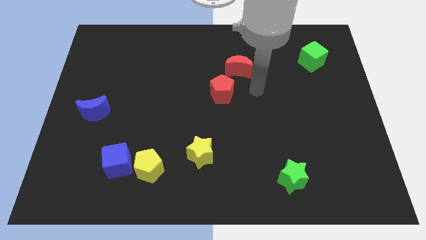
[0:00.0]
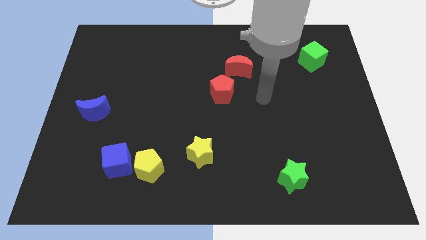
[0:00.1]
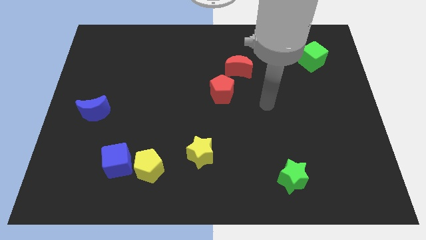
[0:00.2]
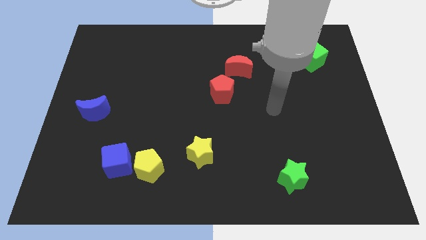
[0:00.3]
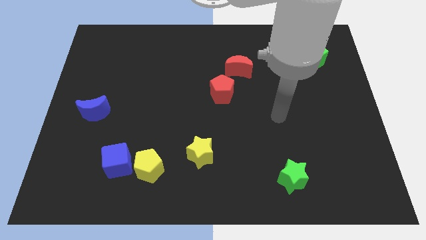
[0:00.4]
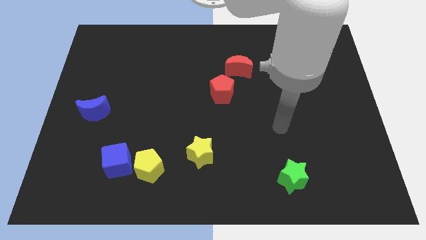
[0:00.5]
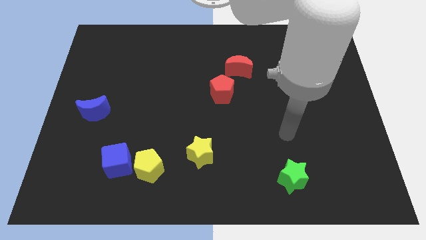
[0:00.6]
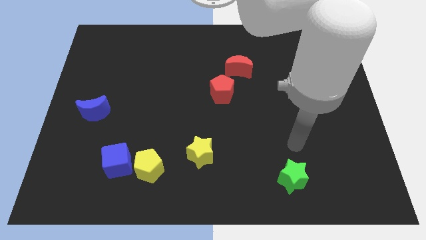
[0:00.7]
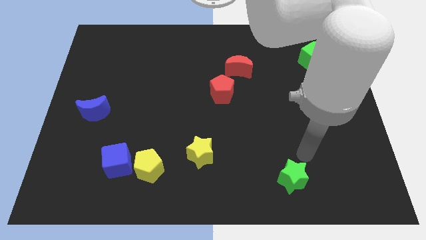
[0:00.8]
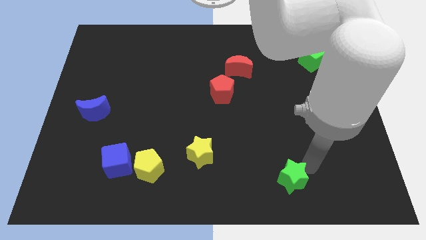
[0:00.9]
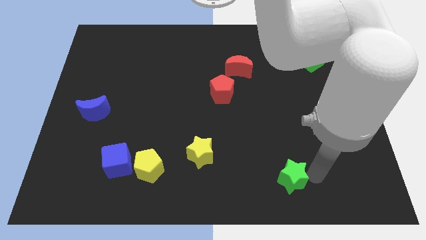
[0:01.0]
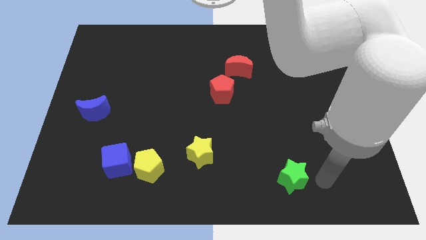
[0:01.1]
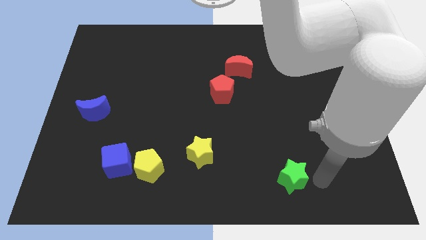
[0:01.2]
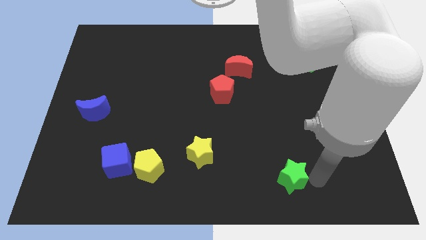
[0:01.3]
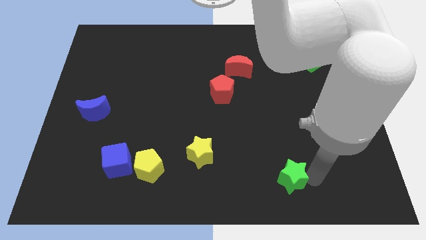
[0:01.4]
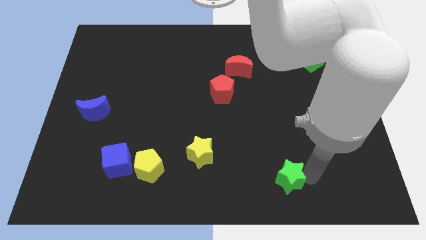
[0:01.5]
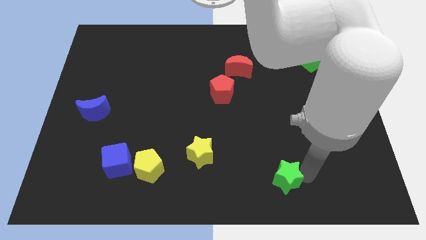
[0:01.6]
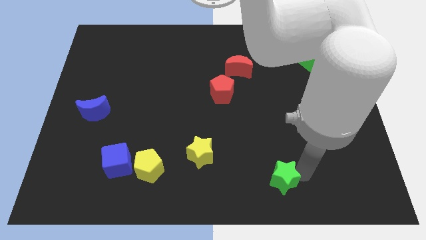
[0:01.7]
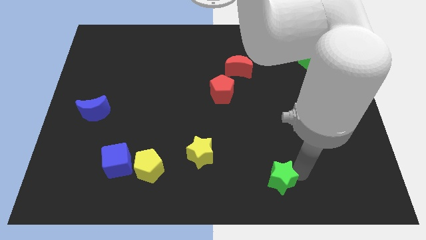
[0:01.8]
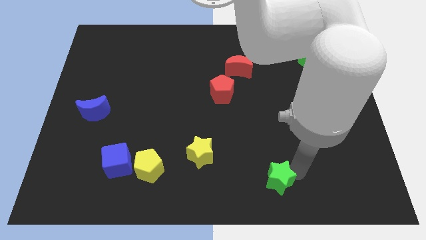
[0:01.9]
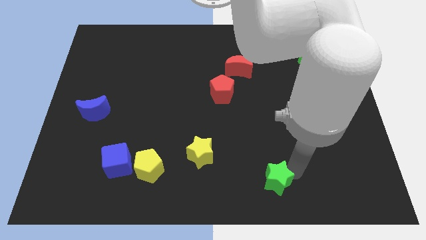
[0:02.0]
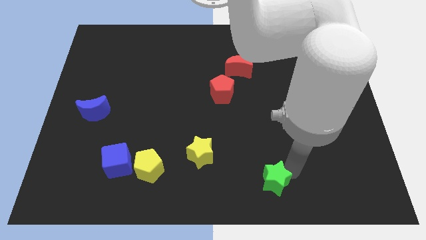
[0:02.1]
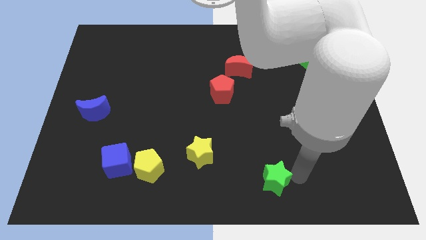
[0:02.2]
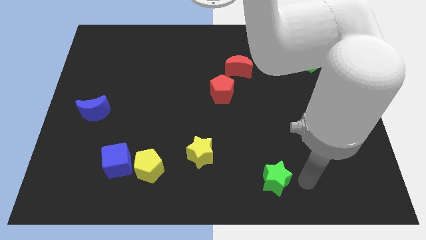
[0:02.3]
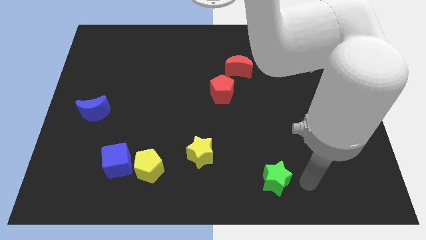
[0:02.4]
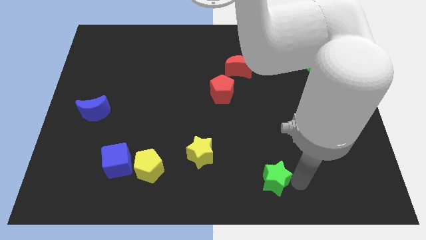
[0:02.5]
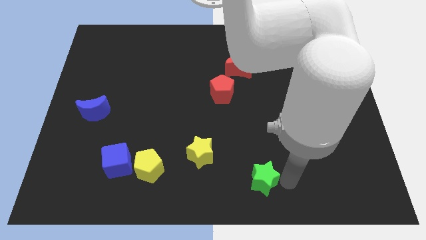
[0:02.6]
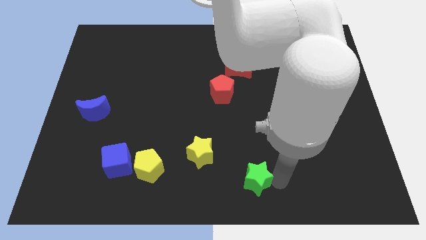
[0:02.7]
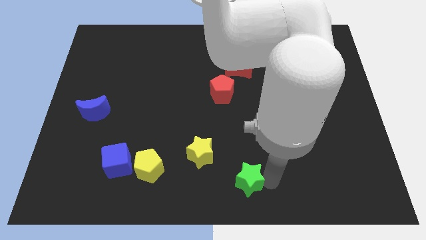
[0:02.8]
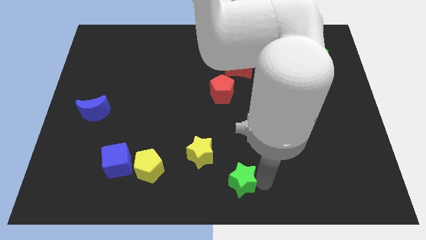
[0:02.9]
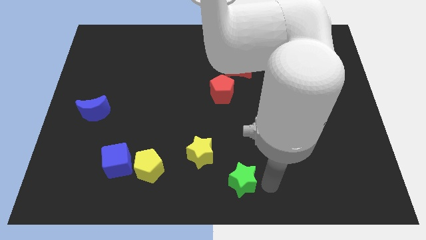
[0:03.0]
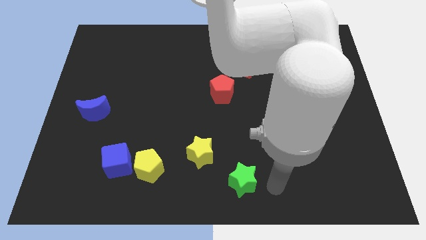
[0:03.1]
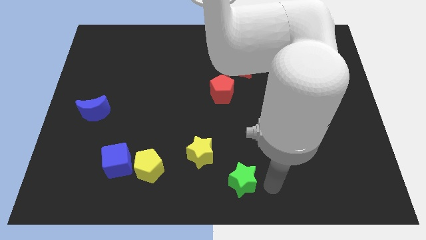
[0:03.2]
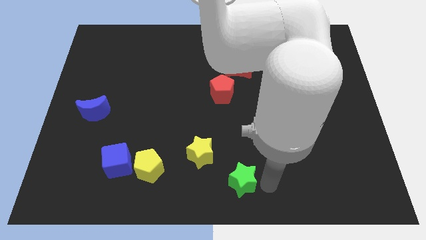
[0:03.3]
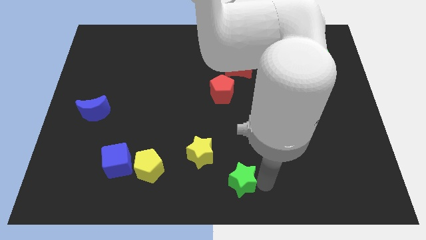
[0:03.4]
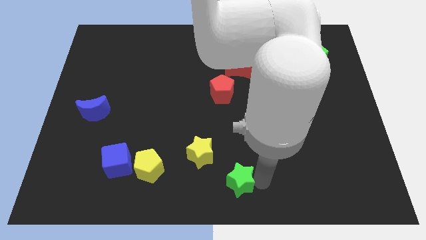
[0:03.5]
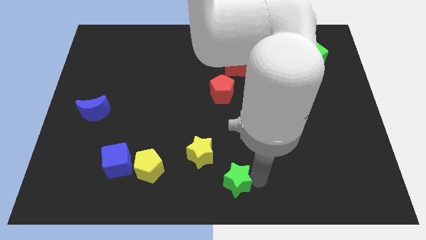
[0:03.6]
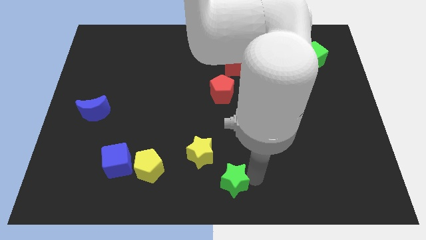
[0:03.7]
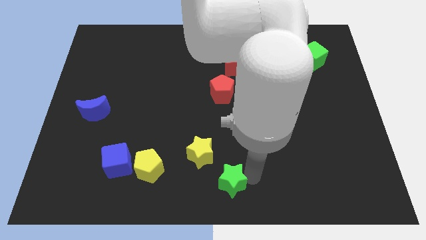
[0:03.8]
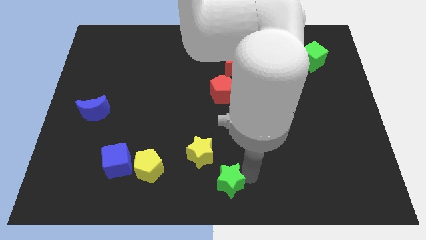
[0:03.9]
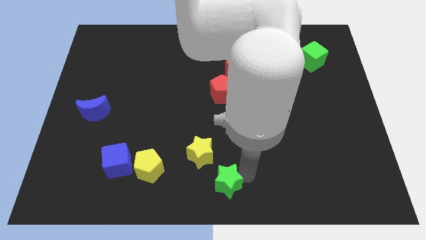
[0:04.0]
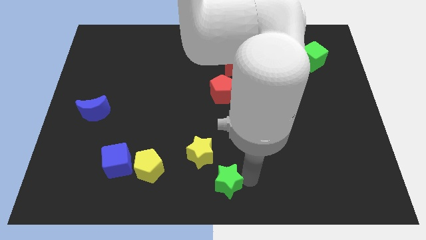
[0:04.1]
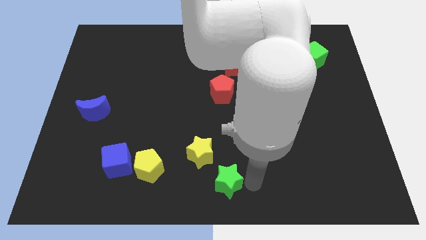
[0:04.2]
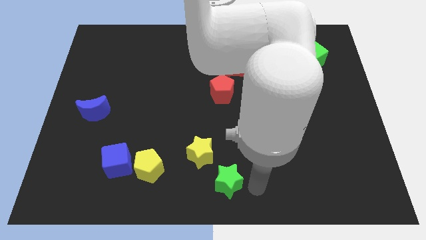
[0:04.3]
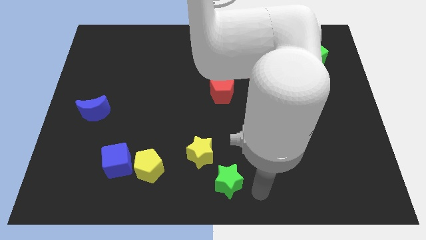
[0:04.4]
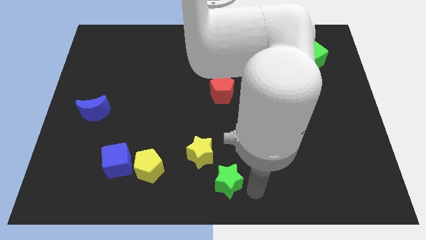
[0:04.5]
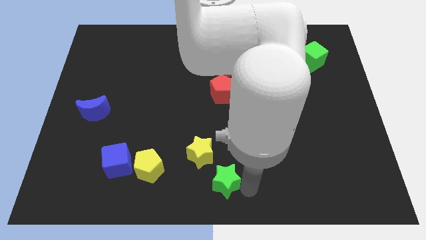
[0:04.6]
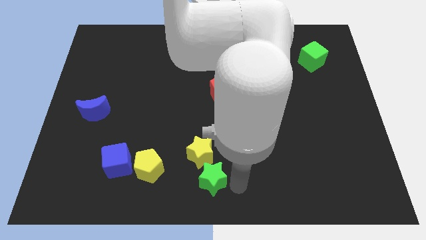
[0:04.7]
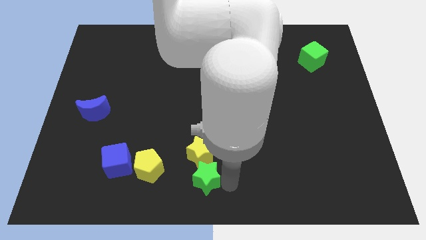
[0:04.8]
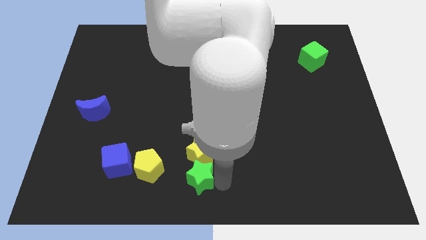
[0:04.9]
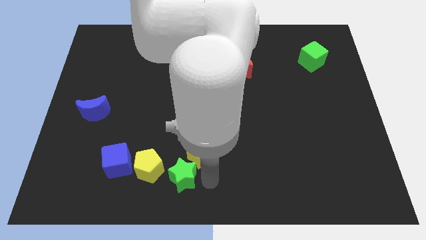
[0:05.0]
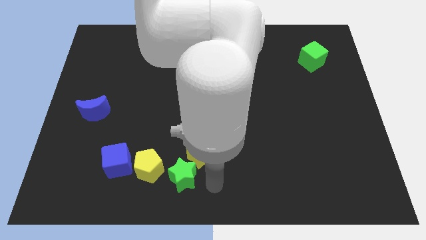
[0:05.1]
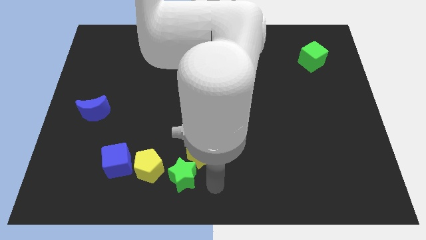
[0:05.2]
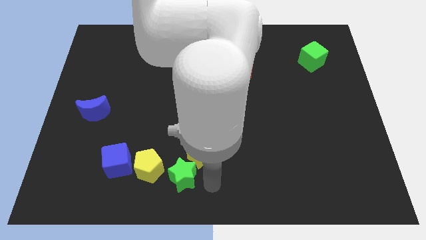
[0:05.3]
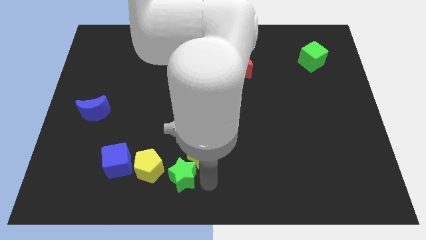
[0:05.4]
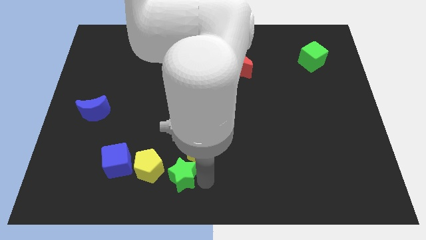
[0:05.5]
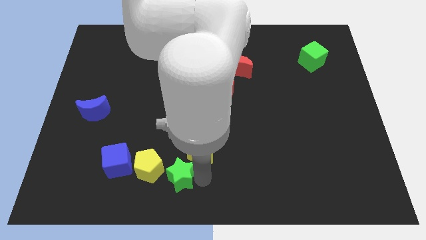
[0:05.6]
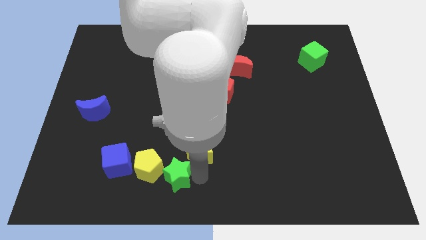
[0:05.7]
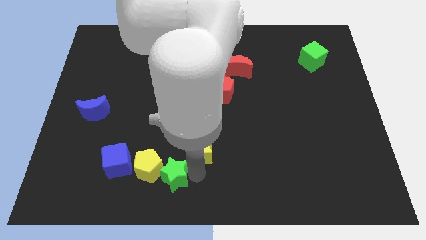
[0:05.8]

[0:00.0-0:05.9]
put the green star to the yellow pentagon

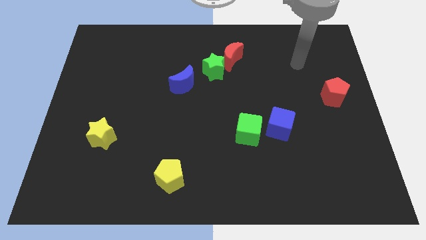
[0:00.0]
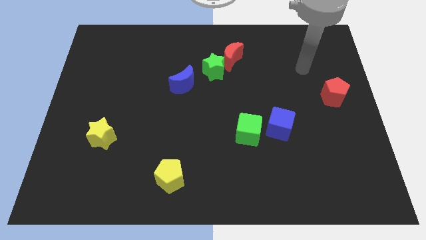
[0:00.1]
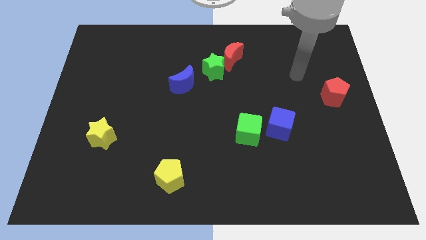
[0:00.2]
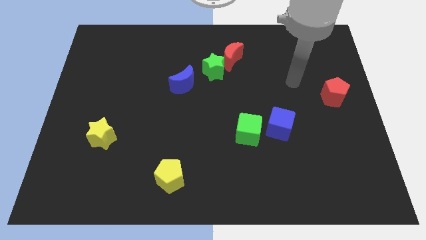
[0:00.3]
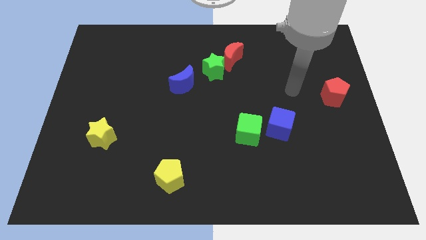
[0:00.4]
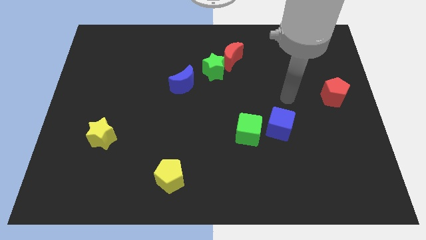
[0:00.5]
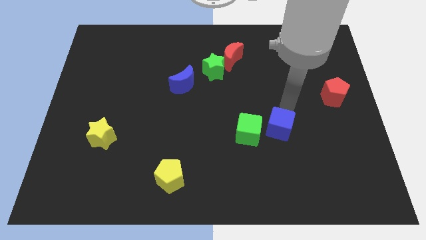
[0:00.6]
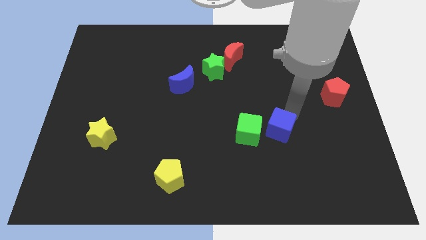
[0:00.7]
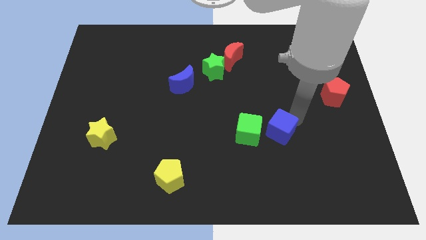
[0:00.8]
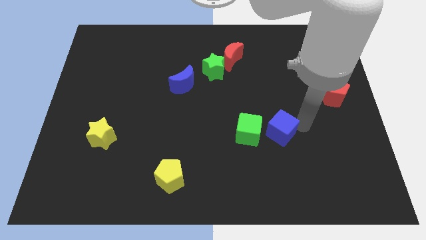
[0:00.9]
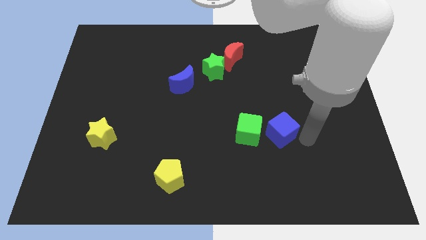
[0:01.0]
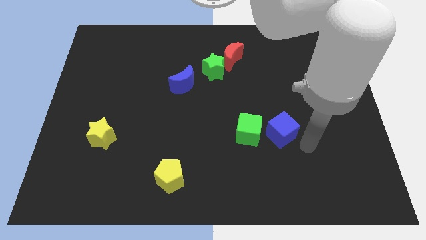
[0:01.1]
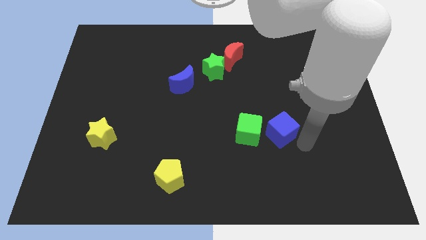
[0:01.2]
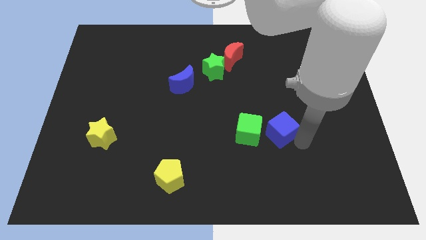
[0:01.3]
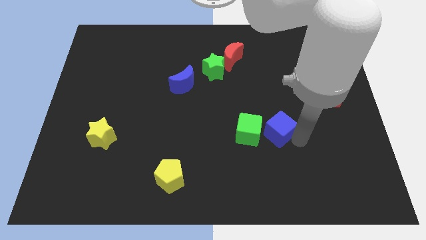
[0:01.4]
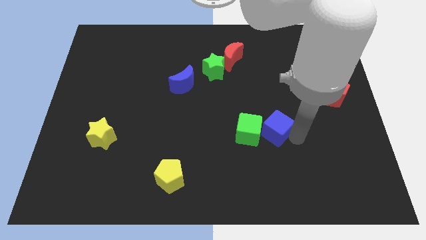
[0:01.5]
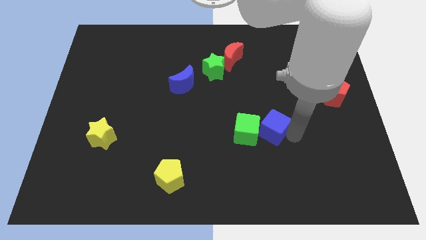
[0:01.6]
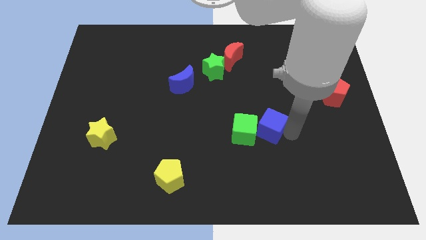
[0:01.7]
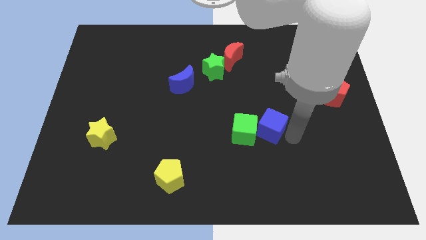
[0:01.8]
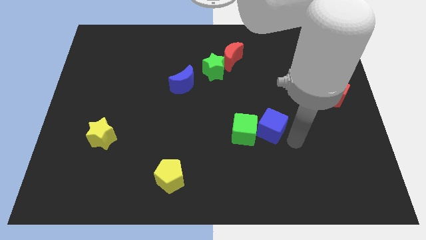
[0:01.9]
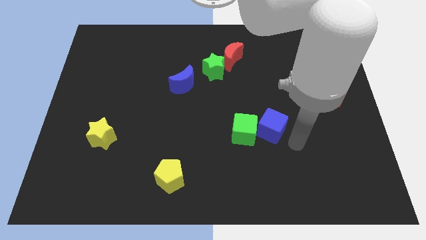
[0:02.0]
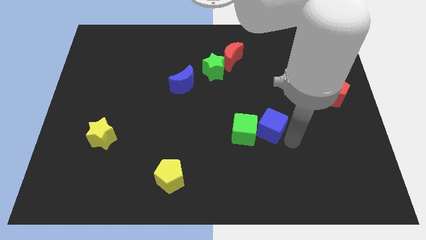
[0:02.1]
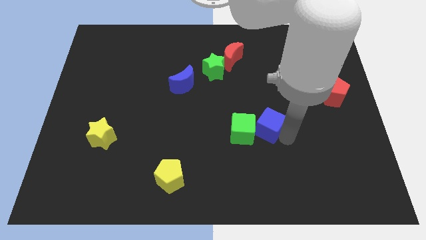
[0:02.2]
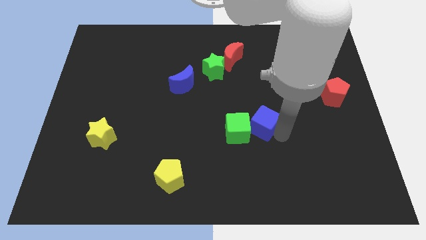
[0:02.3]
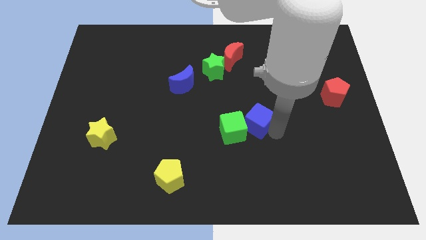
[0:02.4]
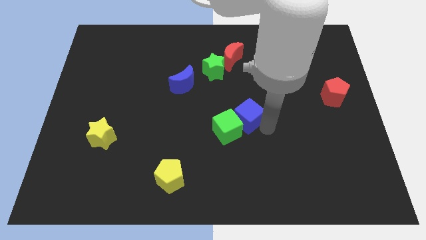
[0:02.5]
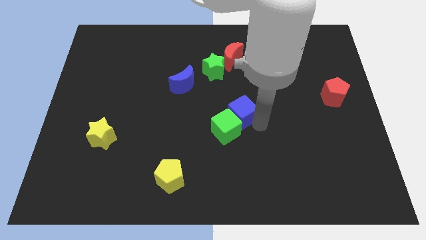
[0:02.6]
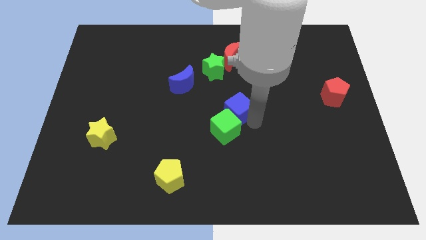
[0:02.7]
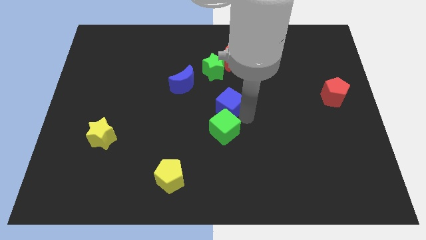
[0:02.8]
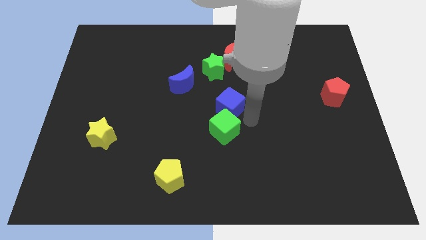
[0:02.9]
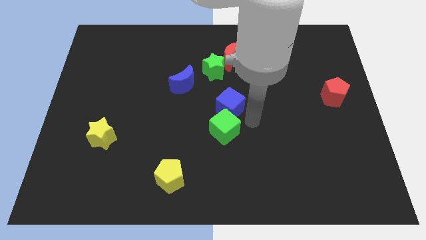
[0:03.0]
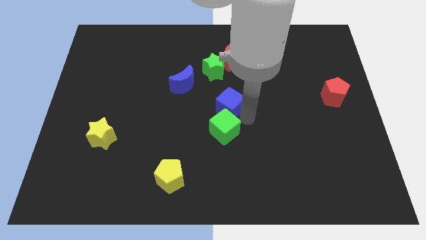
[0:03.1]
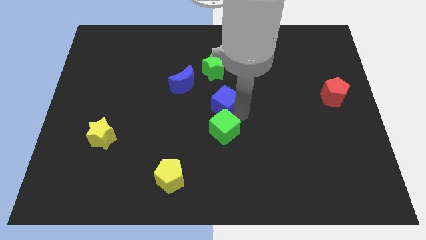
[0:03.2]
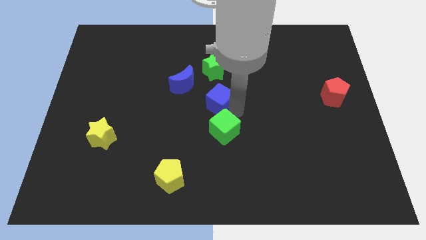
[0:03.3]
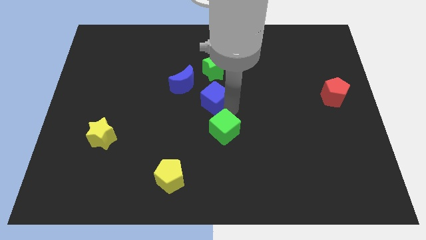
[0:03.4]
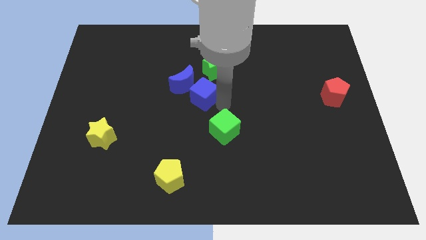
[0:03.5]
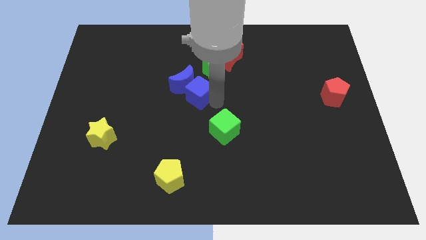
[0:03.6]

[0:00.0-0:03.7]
put the blue cube close to the blue moon
